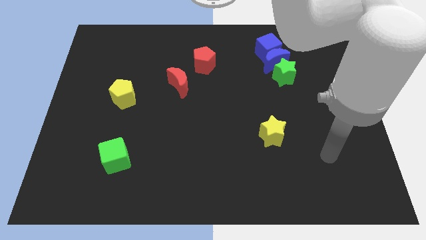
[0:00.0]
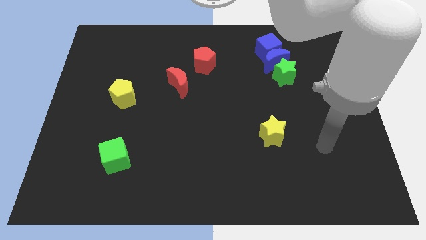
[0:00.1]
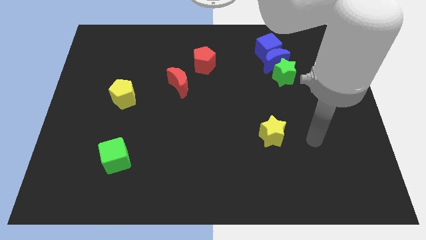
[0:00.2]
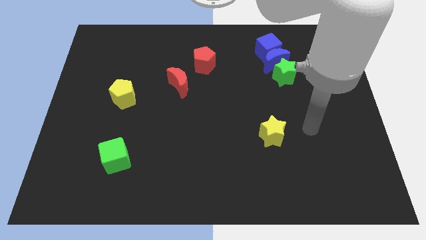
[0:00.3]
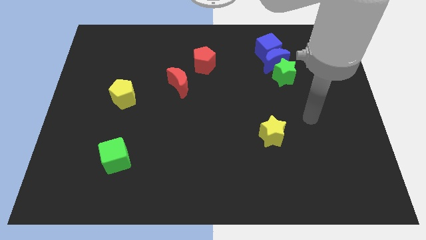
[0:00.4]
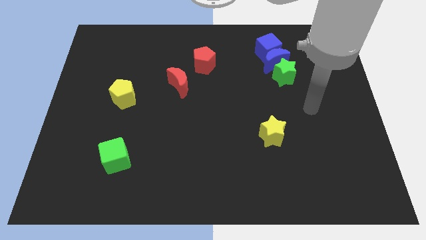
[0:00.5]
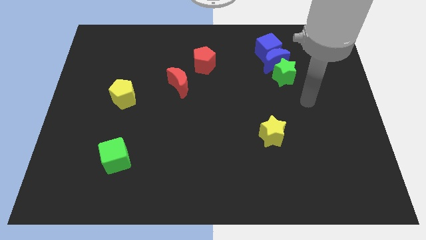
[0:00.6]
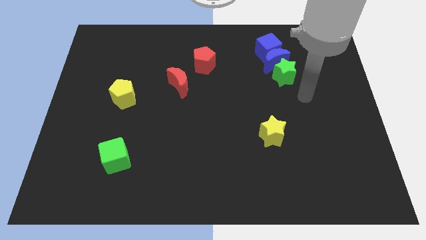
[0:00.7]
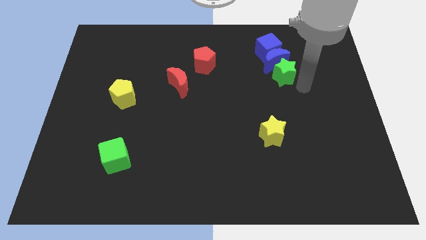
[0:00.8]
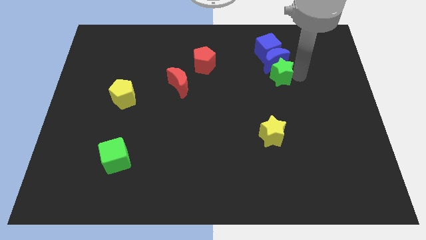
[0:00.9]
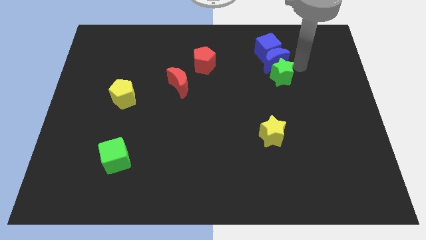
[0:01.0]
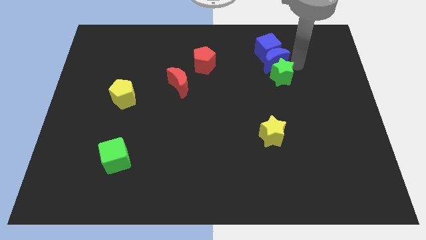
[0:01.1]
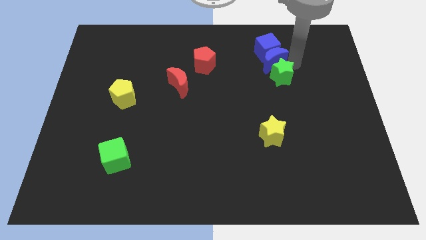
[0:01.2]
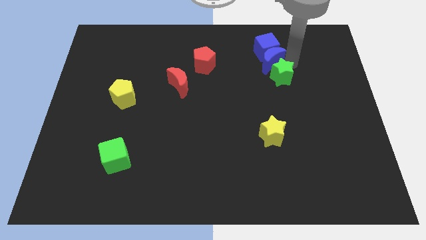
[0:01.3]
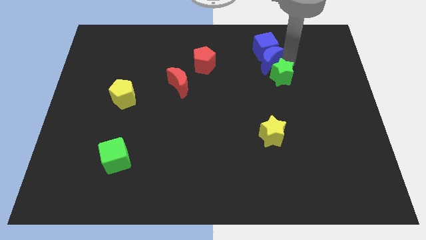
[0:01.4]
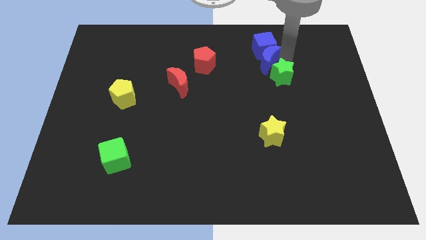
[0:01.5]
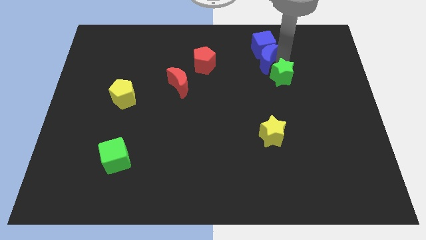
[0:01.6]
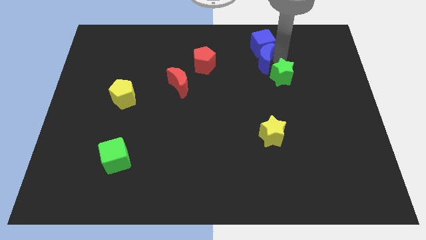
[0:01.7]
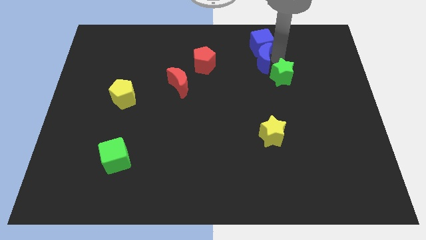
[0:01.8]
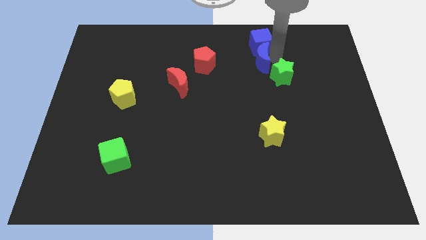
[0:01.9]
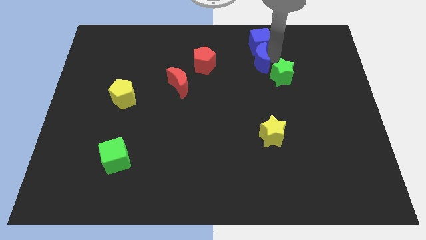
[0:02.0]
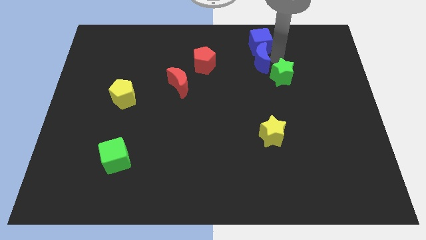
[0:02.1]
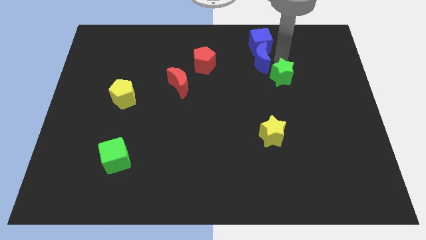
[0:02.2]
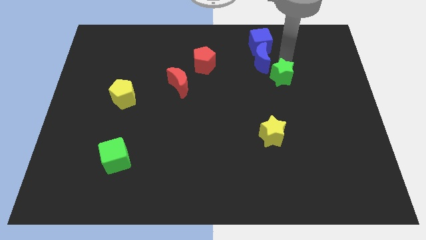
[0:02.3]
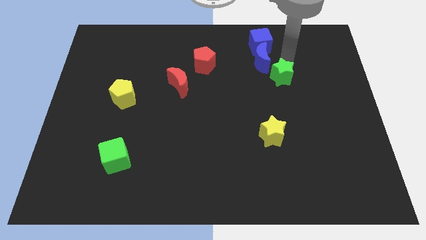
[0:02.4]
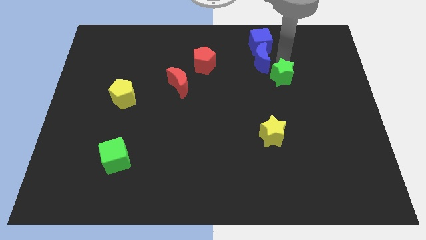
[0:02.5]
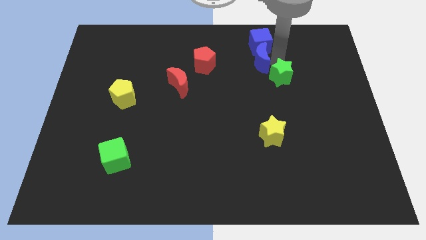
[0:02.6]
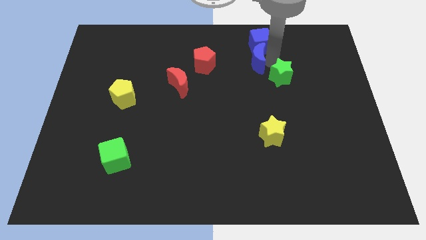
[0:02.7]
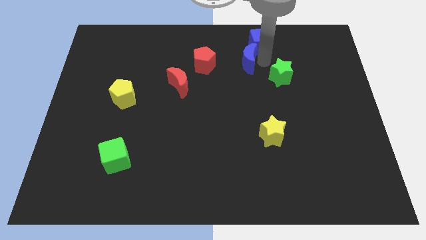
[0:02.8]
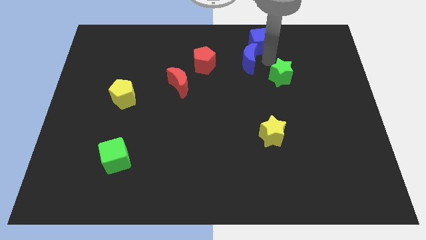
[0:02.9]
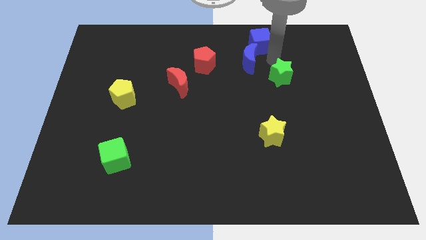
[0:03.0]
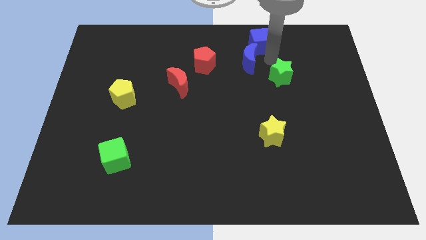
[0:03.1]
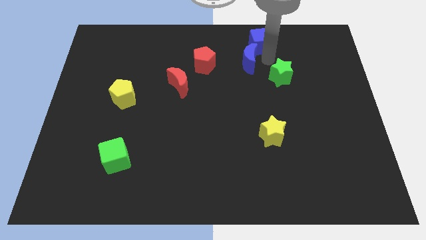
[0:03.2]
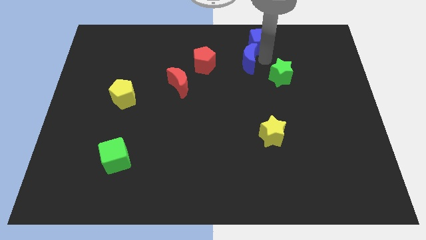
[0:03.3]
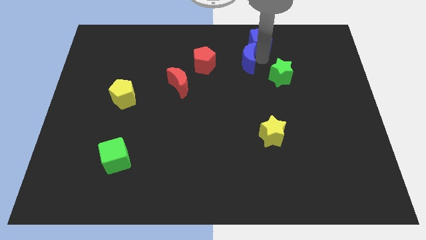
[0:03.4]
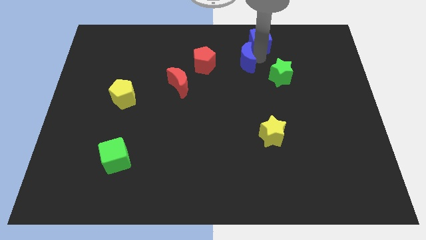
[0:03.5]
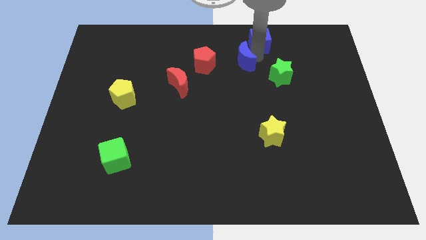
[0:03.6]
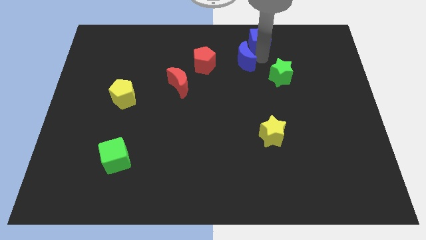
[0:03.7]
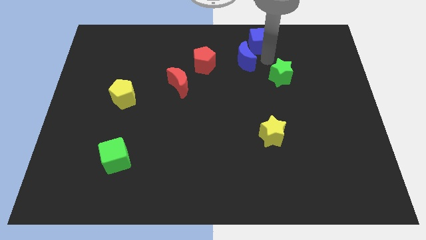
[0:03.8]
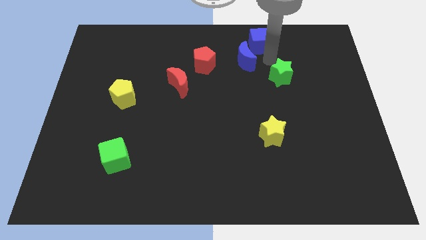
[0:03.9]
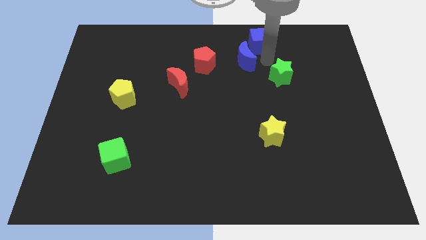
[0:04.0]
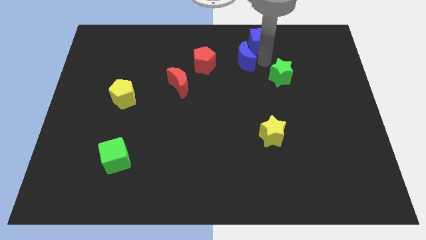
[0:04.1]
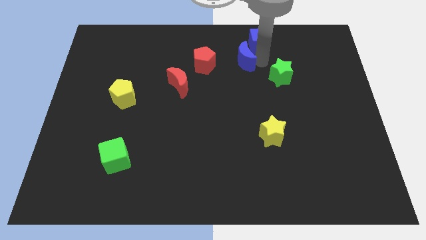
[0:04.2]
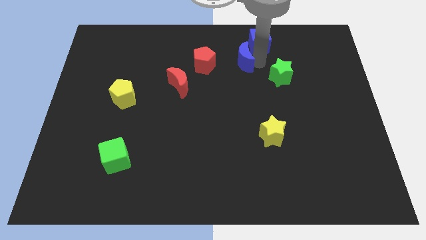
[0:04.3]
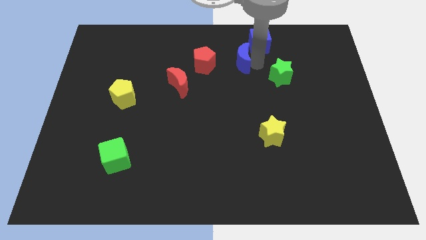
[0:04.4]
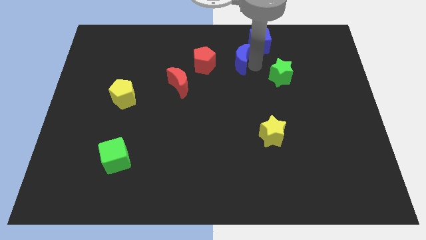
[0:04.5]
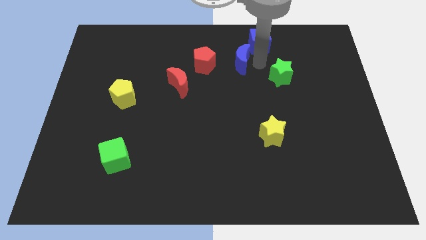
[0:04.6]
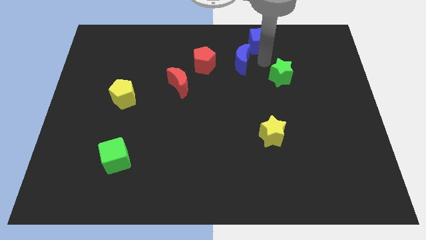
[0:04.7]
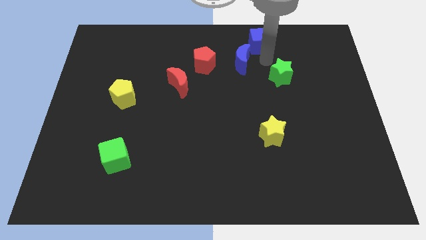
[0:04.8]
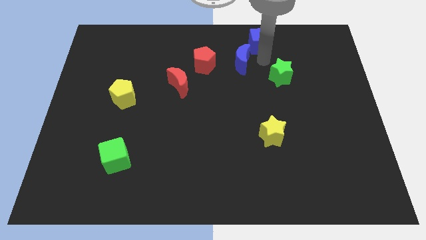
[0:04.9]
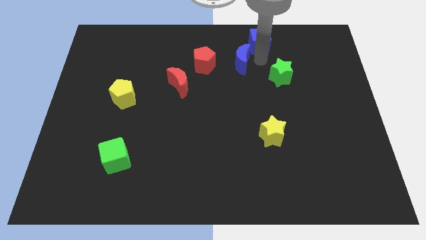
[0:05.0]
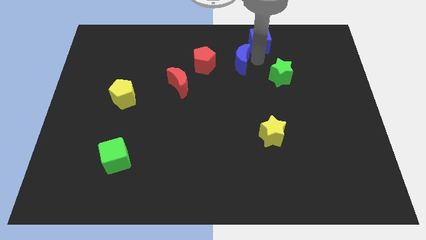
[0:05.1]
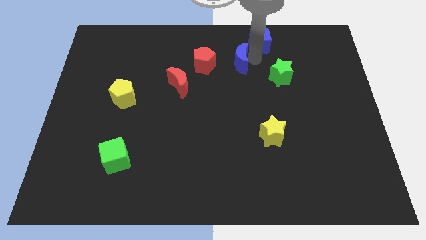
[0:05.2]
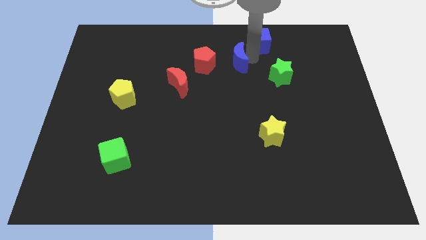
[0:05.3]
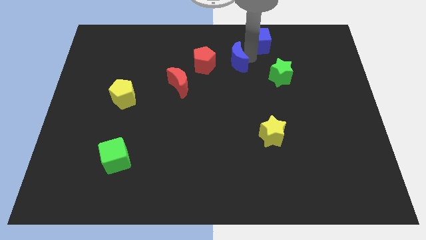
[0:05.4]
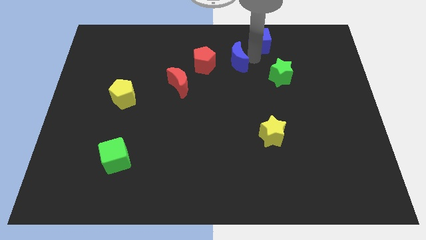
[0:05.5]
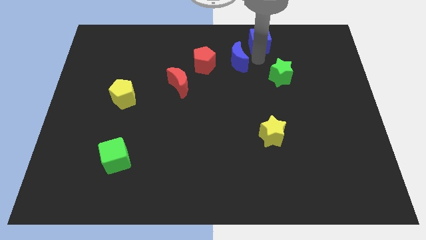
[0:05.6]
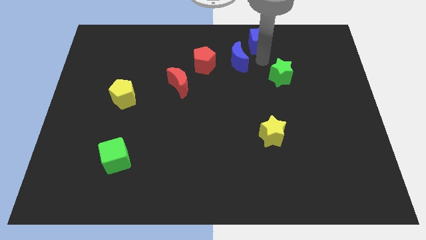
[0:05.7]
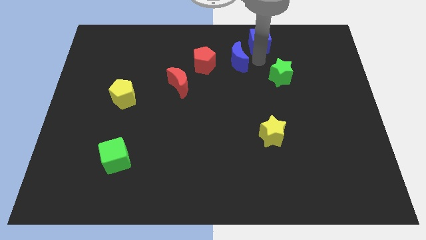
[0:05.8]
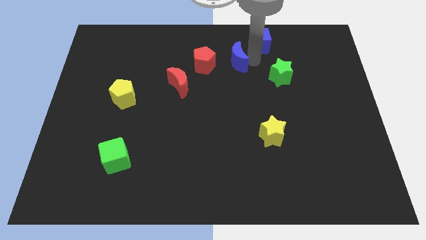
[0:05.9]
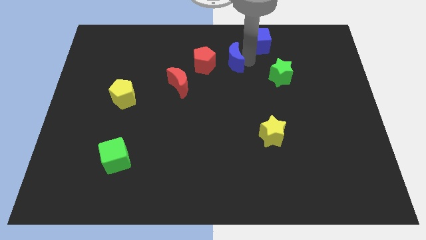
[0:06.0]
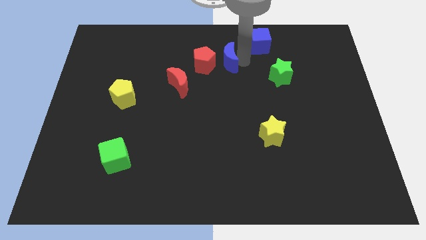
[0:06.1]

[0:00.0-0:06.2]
pull the blue moon apart from the blue cube and green star

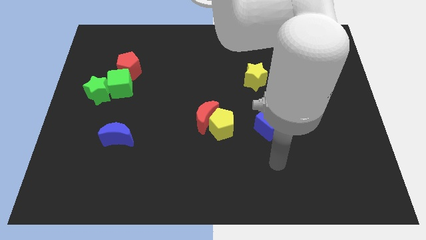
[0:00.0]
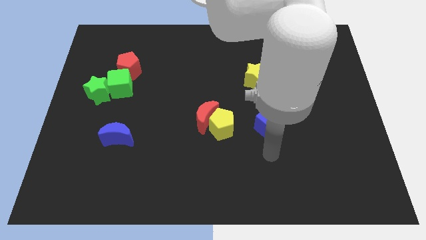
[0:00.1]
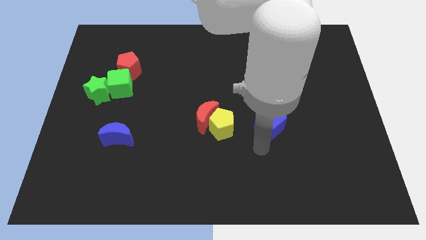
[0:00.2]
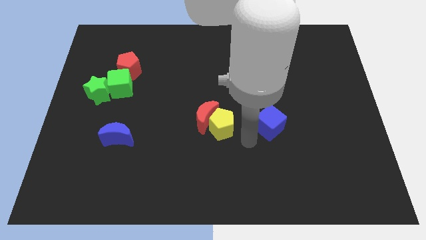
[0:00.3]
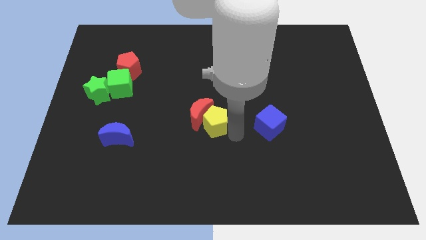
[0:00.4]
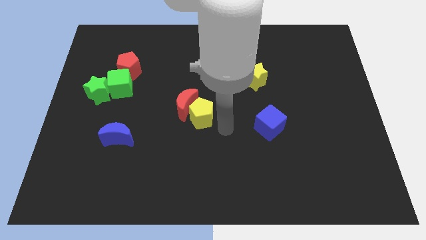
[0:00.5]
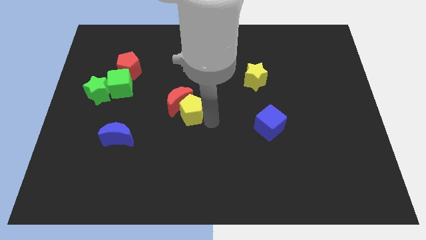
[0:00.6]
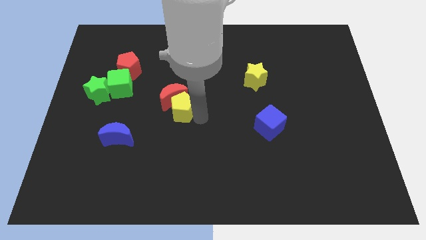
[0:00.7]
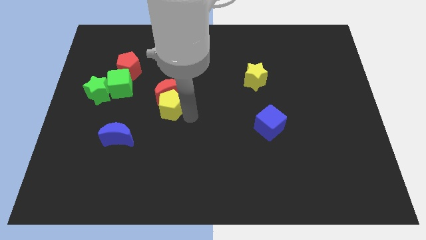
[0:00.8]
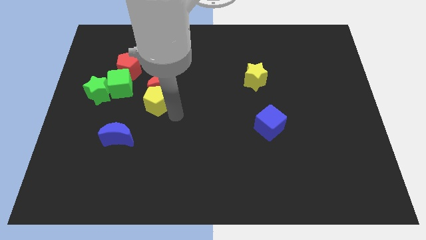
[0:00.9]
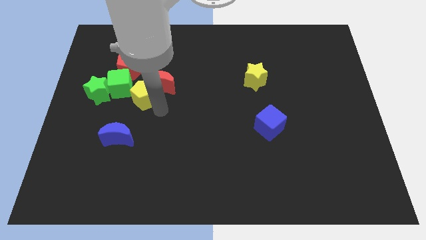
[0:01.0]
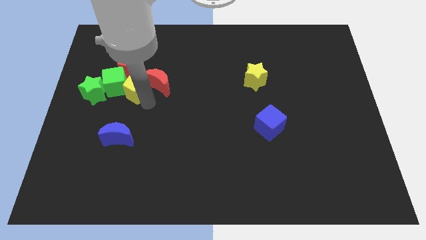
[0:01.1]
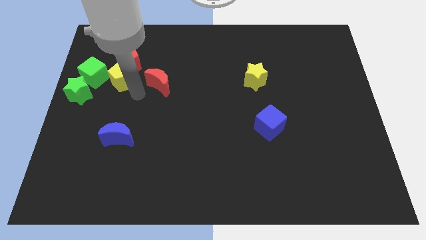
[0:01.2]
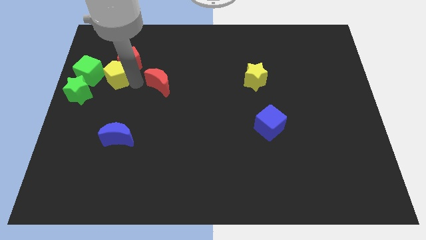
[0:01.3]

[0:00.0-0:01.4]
separate the red moon from the yellow pentagon

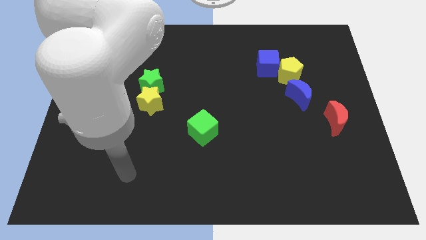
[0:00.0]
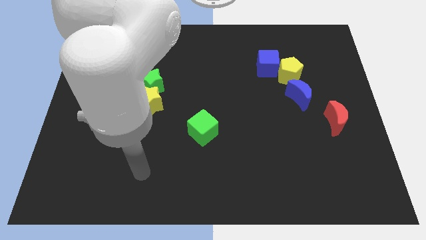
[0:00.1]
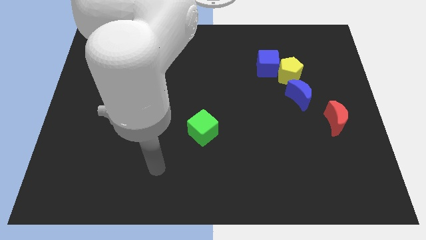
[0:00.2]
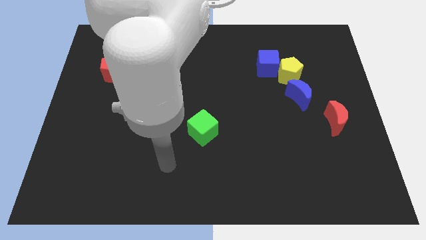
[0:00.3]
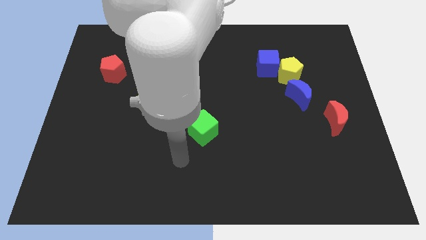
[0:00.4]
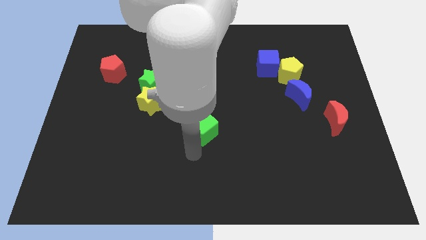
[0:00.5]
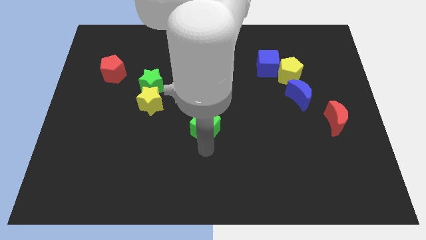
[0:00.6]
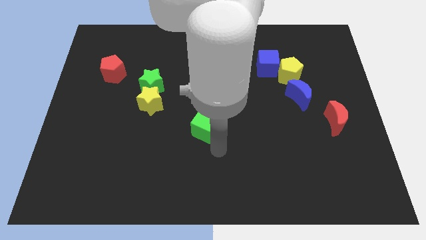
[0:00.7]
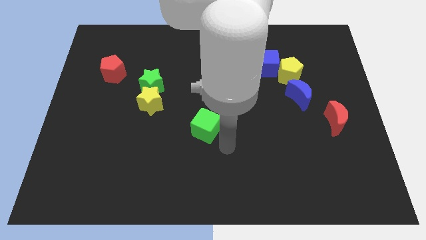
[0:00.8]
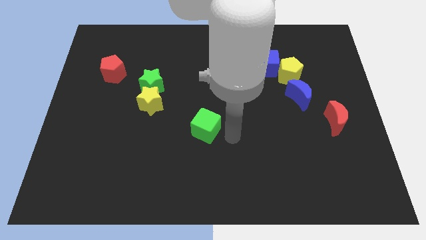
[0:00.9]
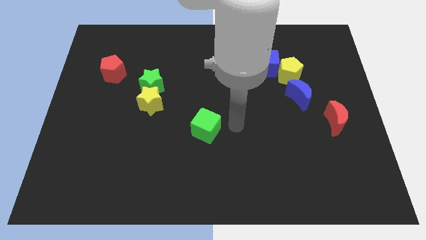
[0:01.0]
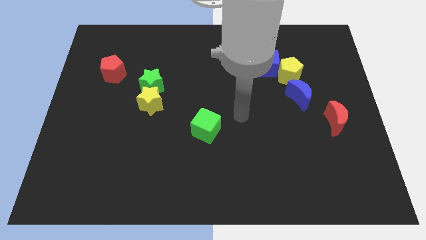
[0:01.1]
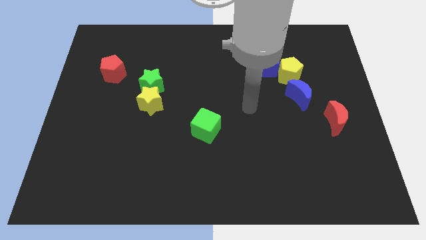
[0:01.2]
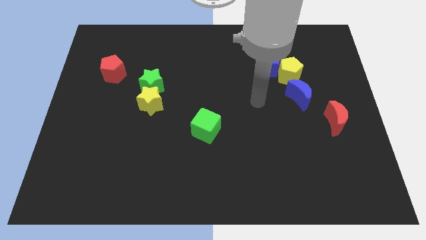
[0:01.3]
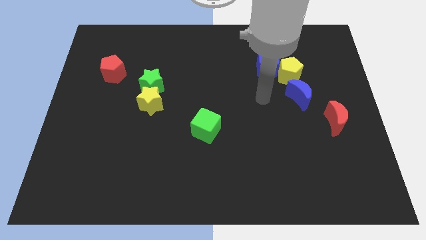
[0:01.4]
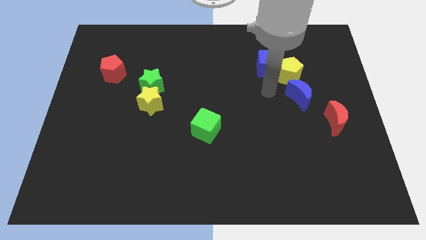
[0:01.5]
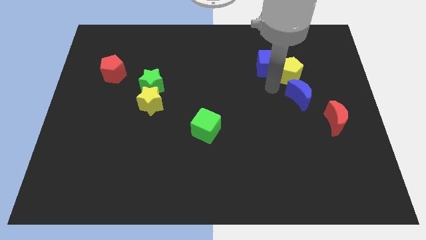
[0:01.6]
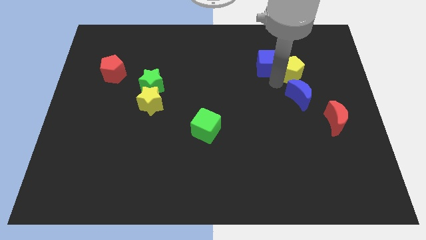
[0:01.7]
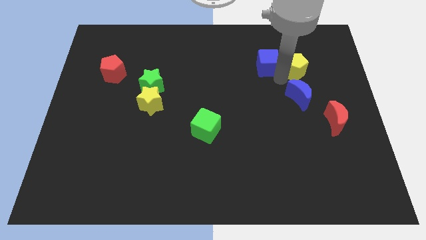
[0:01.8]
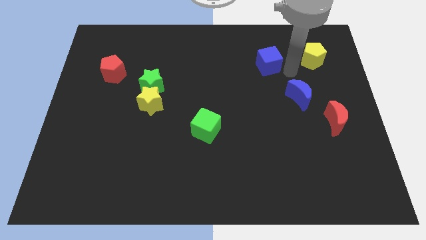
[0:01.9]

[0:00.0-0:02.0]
pull the blue cube apart from the yellow pentagon
